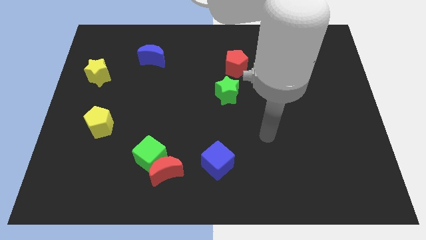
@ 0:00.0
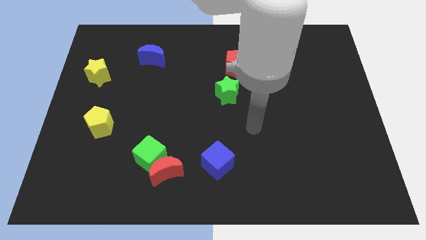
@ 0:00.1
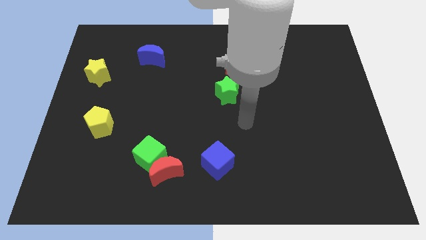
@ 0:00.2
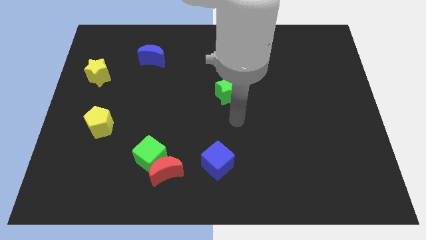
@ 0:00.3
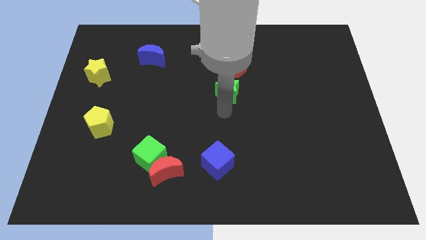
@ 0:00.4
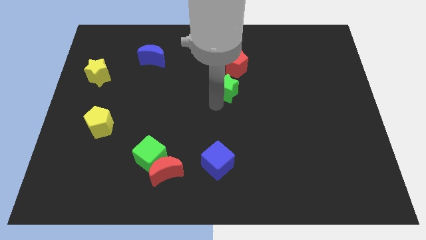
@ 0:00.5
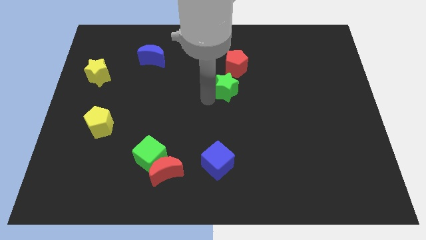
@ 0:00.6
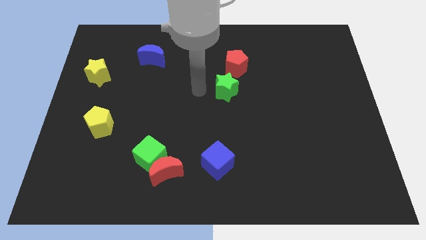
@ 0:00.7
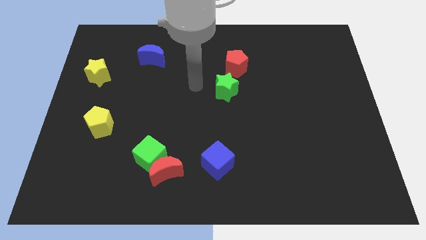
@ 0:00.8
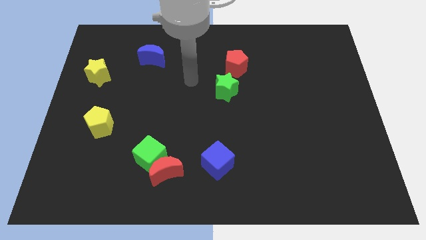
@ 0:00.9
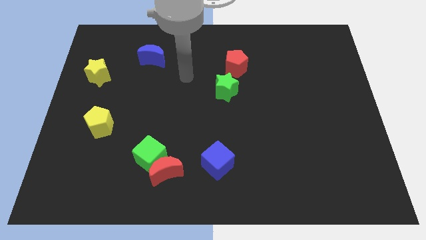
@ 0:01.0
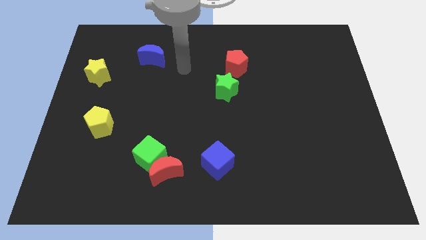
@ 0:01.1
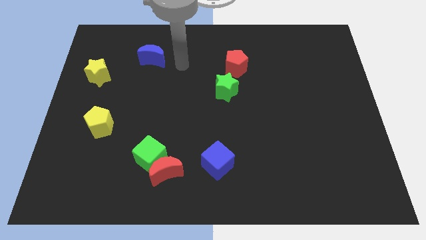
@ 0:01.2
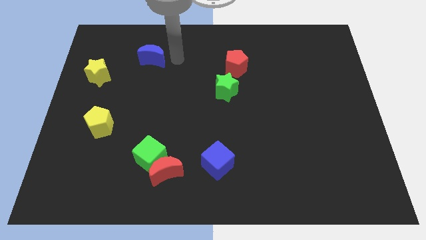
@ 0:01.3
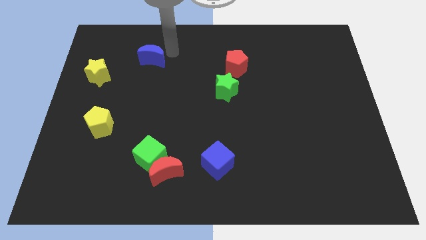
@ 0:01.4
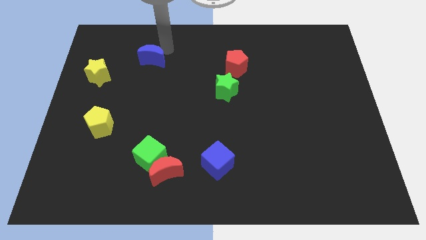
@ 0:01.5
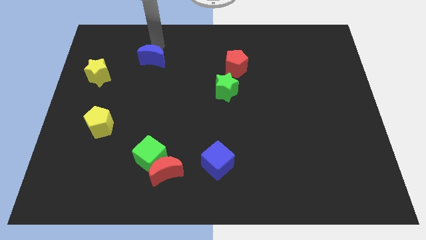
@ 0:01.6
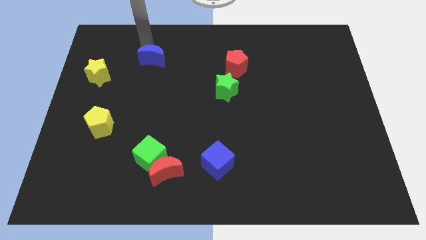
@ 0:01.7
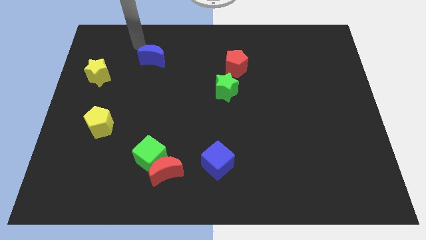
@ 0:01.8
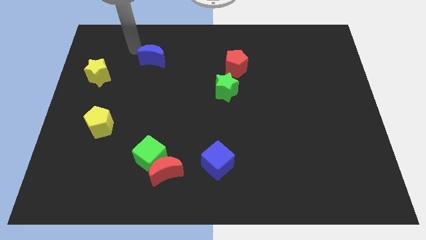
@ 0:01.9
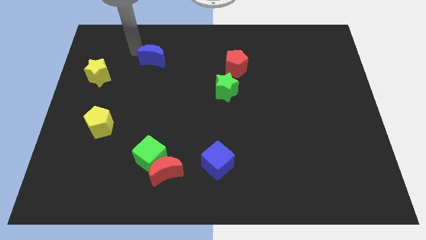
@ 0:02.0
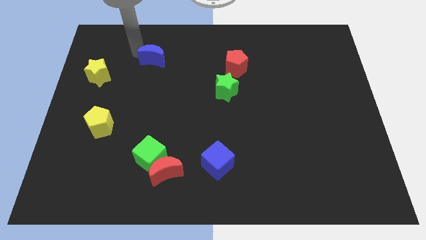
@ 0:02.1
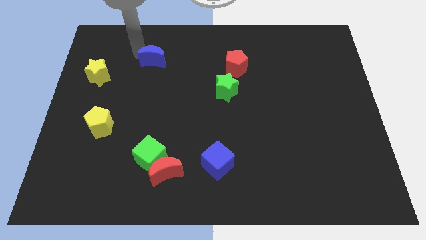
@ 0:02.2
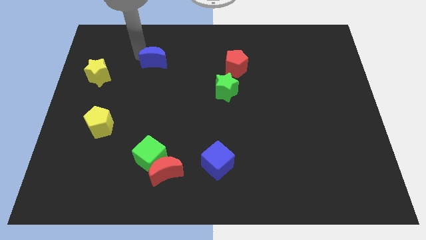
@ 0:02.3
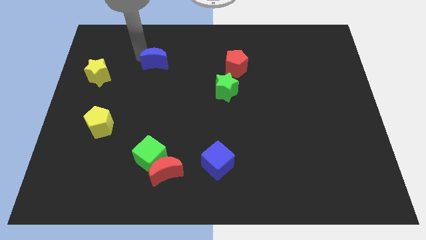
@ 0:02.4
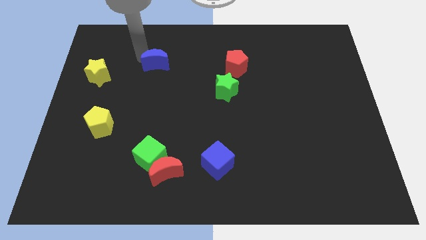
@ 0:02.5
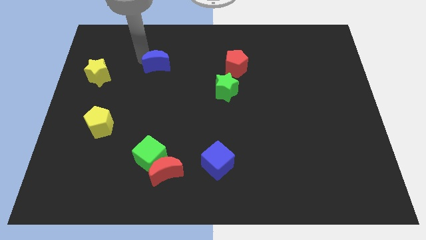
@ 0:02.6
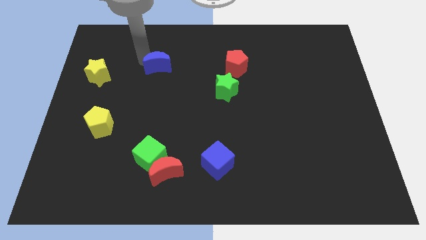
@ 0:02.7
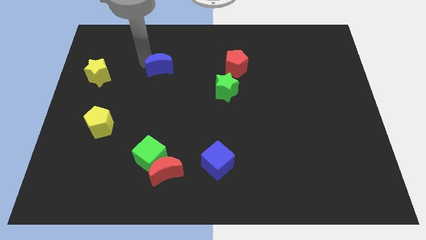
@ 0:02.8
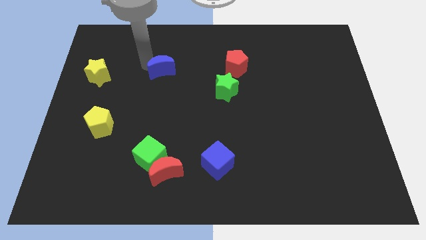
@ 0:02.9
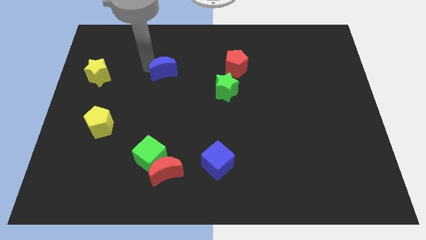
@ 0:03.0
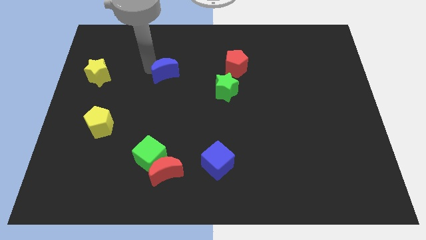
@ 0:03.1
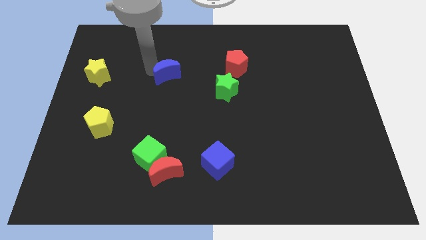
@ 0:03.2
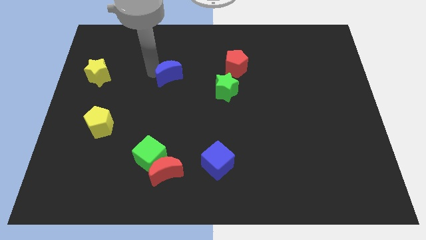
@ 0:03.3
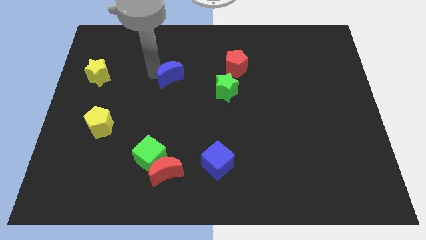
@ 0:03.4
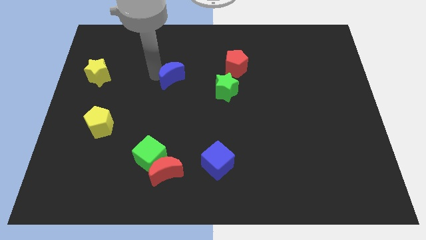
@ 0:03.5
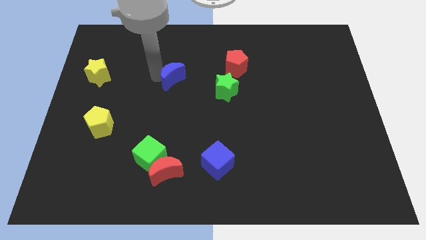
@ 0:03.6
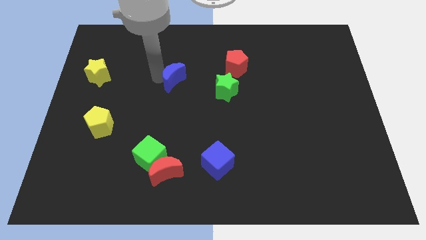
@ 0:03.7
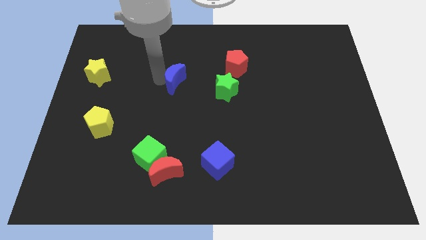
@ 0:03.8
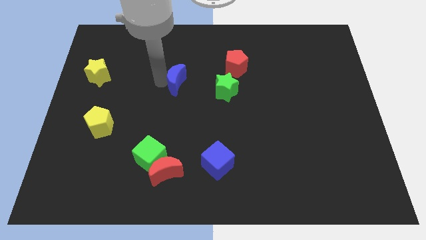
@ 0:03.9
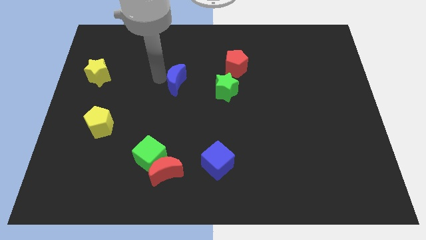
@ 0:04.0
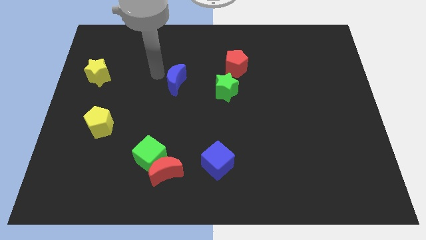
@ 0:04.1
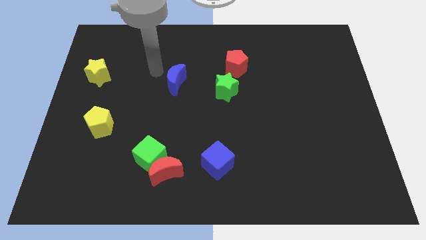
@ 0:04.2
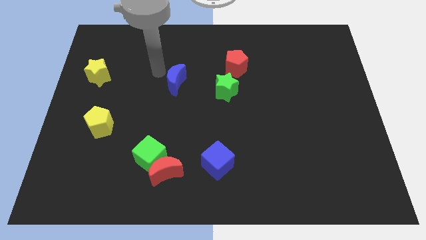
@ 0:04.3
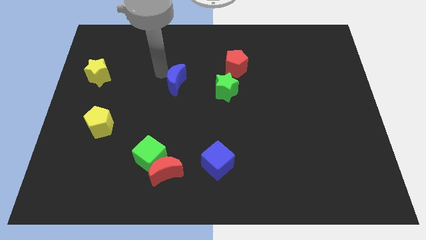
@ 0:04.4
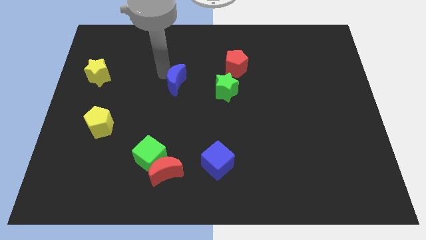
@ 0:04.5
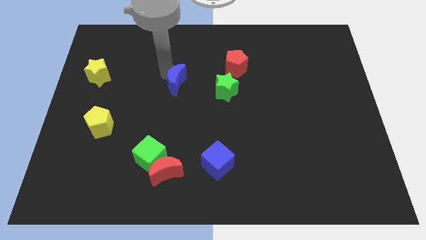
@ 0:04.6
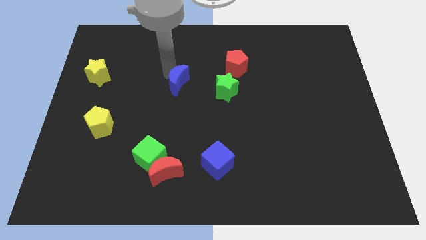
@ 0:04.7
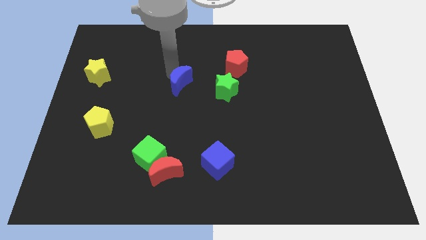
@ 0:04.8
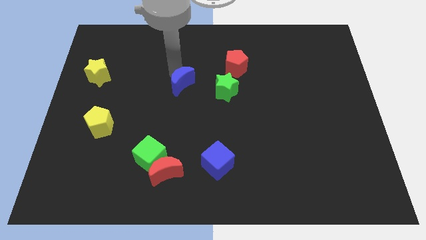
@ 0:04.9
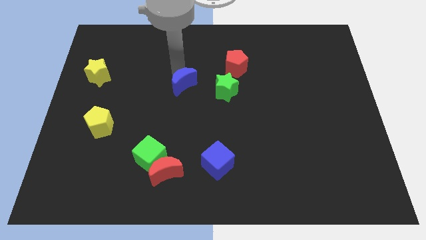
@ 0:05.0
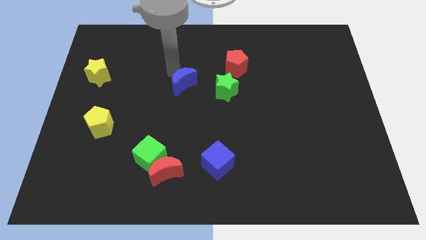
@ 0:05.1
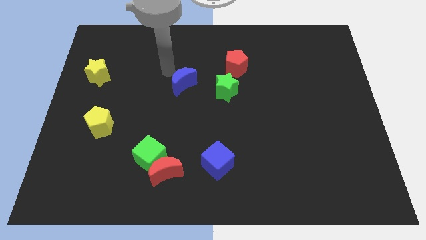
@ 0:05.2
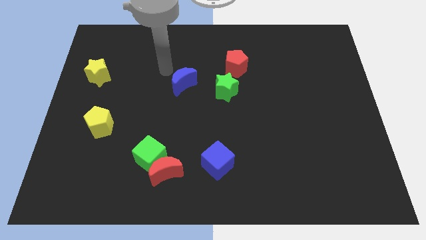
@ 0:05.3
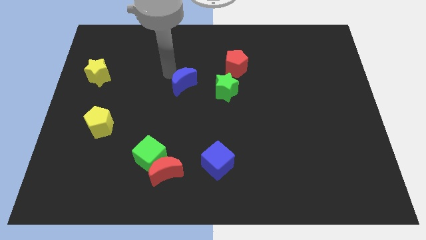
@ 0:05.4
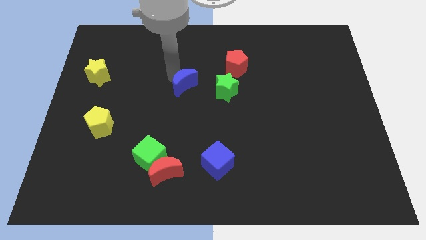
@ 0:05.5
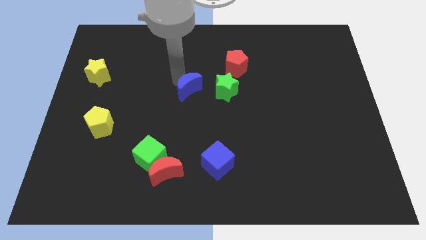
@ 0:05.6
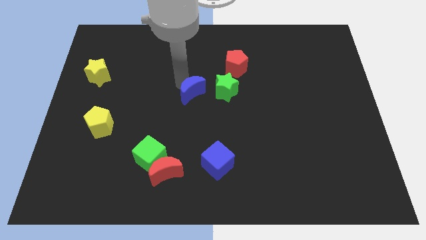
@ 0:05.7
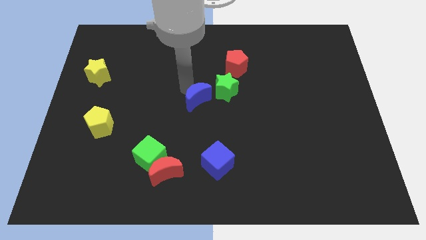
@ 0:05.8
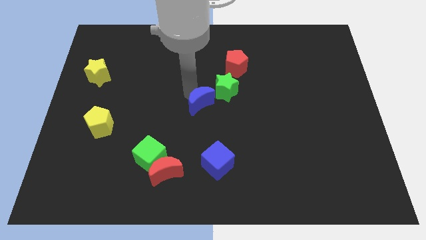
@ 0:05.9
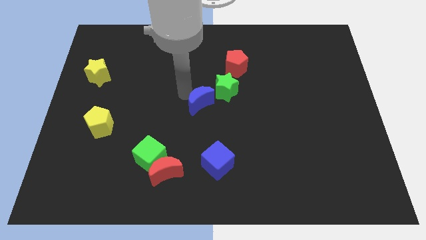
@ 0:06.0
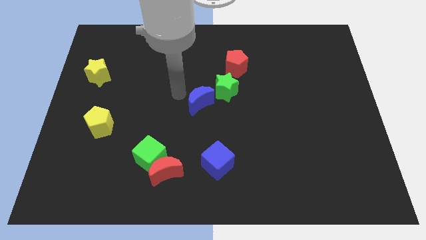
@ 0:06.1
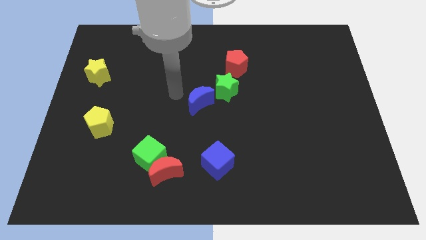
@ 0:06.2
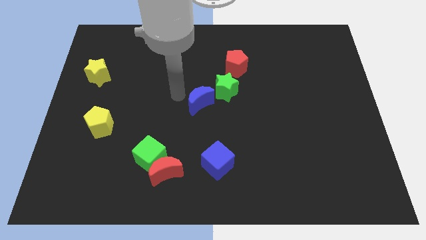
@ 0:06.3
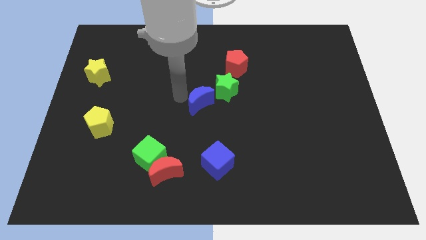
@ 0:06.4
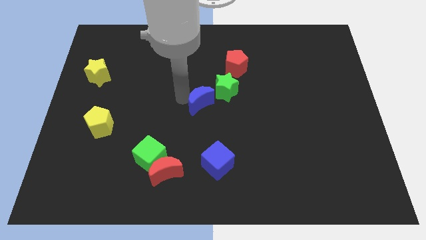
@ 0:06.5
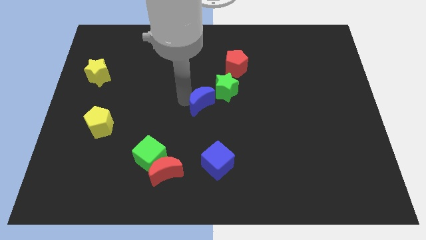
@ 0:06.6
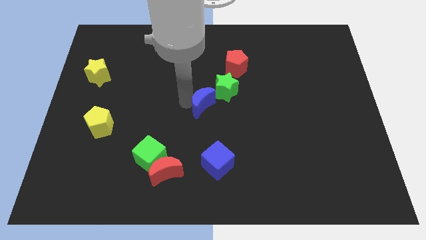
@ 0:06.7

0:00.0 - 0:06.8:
slide the blue moon down and right

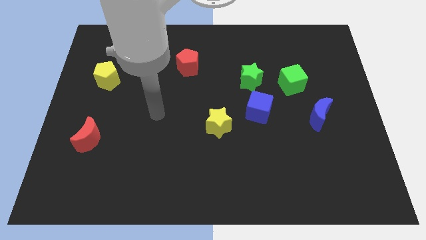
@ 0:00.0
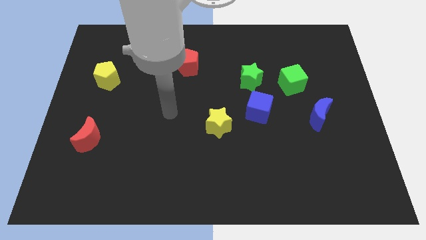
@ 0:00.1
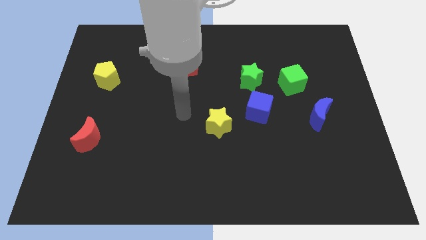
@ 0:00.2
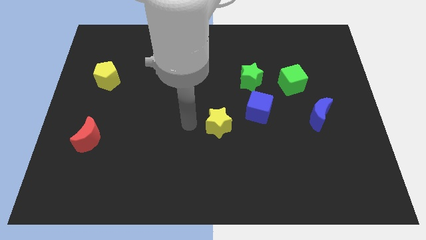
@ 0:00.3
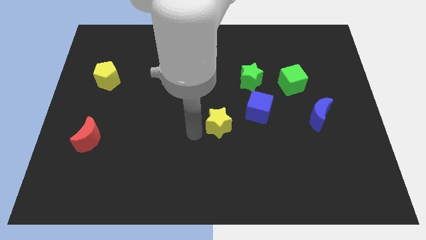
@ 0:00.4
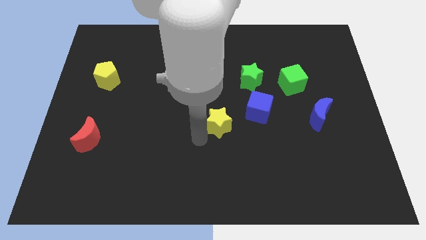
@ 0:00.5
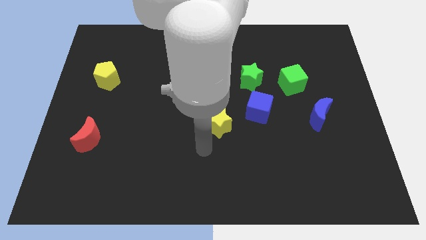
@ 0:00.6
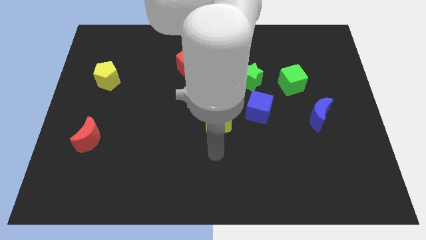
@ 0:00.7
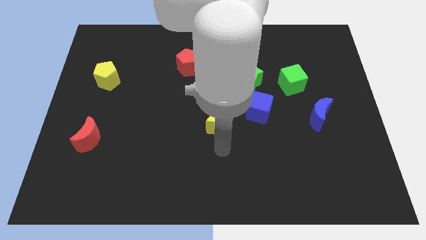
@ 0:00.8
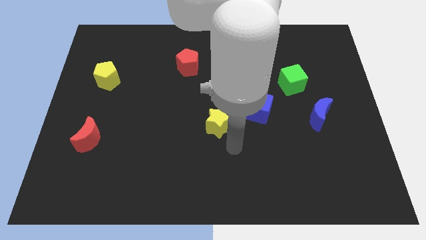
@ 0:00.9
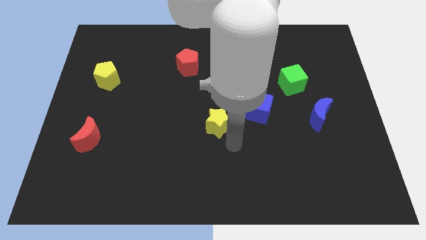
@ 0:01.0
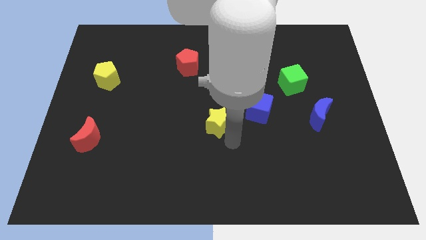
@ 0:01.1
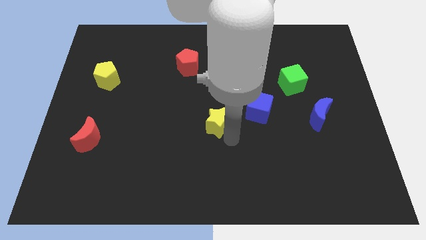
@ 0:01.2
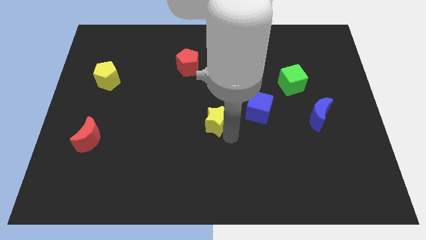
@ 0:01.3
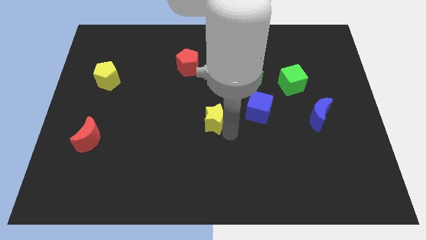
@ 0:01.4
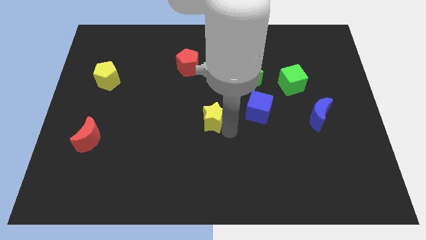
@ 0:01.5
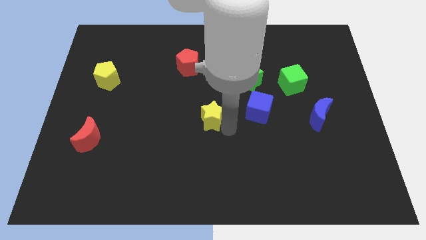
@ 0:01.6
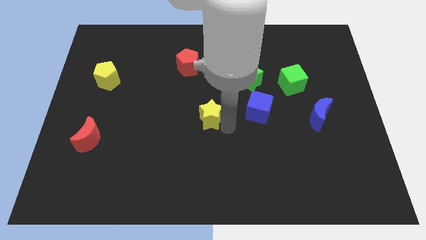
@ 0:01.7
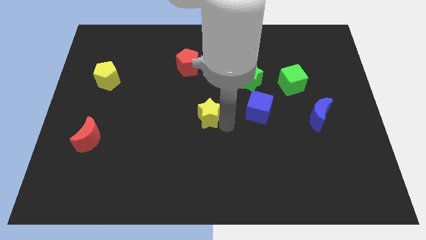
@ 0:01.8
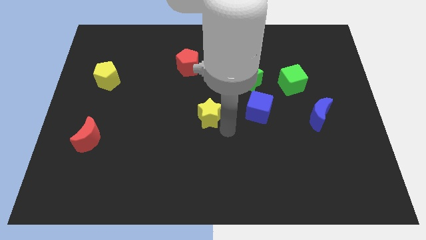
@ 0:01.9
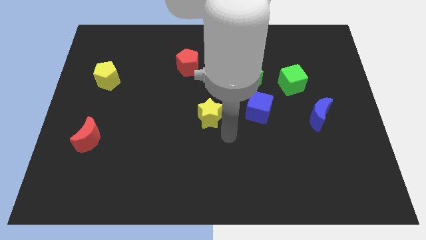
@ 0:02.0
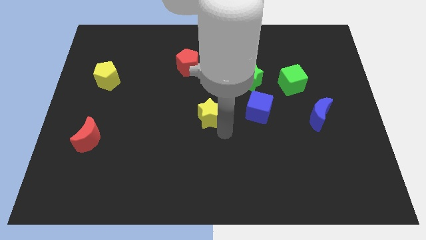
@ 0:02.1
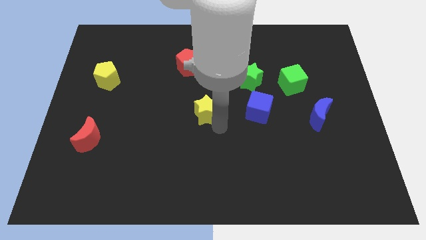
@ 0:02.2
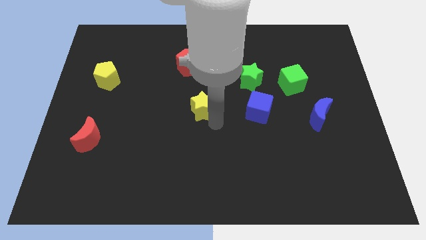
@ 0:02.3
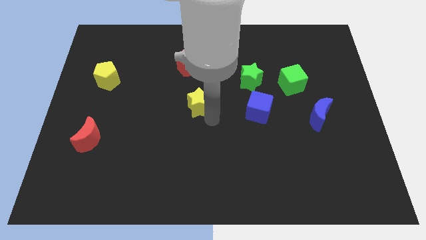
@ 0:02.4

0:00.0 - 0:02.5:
push the yellow star diagonally up and left a little
